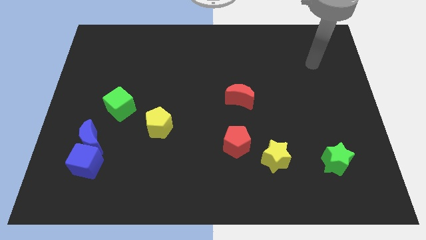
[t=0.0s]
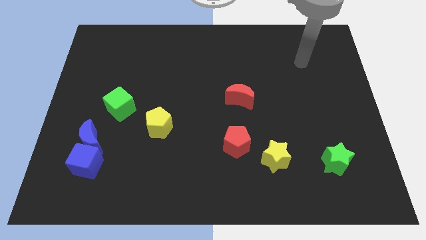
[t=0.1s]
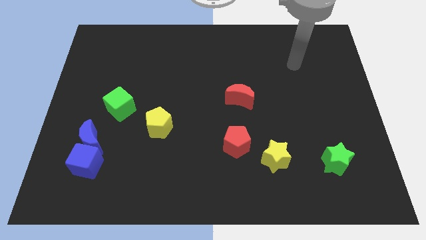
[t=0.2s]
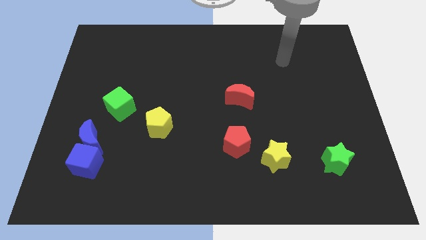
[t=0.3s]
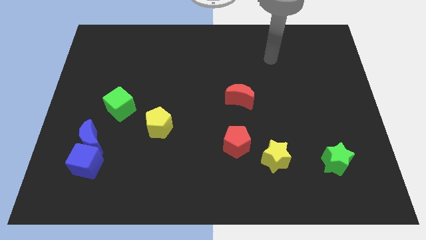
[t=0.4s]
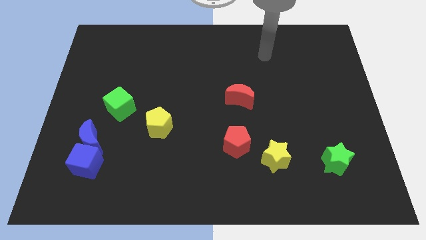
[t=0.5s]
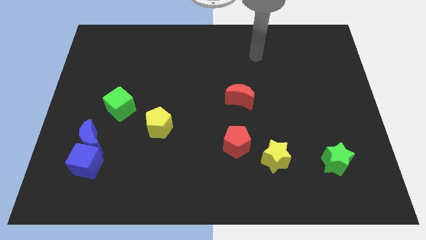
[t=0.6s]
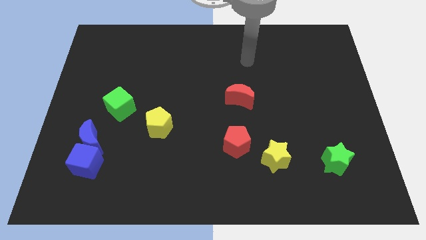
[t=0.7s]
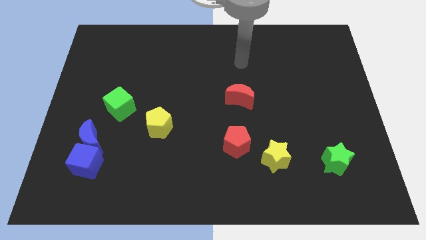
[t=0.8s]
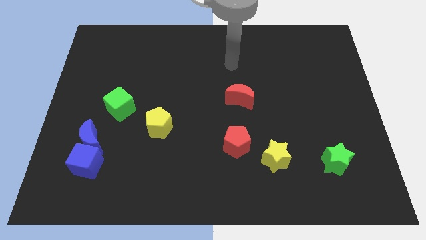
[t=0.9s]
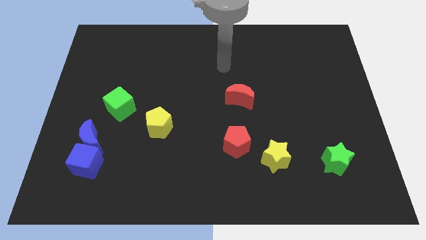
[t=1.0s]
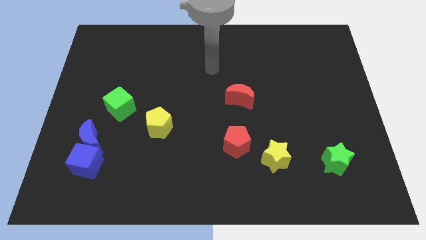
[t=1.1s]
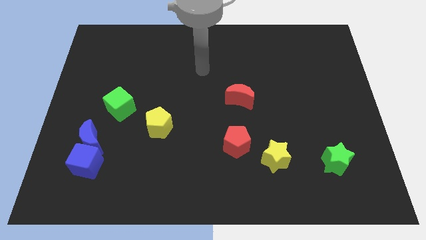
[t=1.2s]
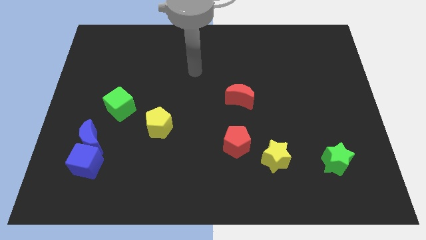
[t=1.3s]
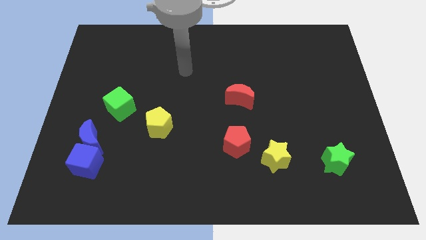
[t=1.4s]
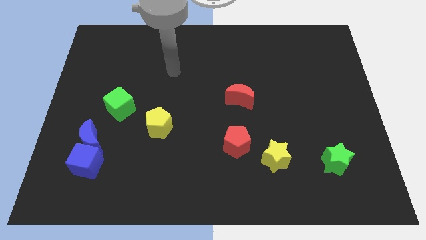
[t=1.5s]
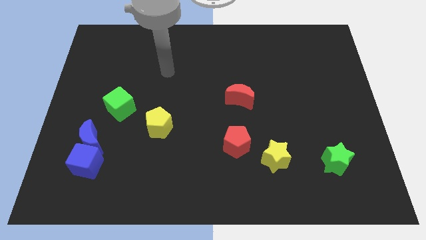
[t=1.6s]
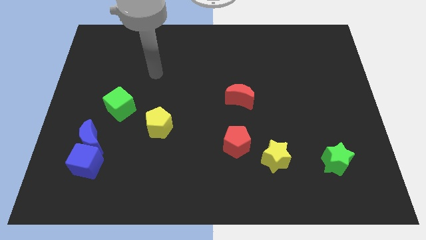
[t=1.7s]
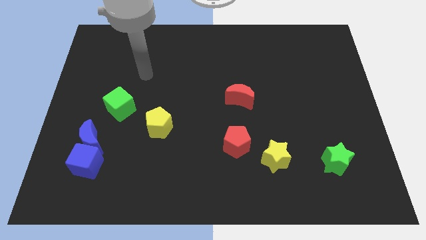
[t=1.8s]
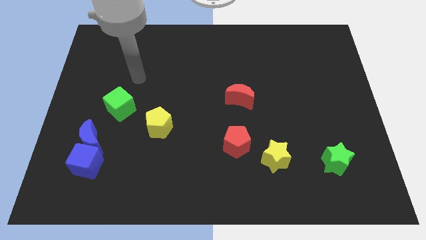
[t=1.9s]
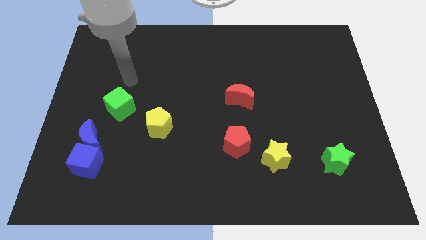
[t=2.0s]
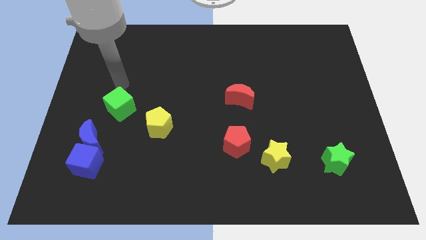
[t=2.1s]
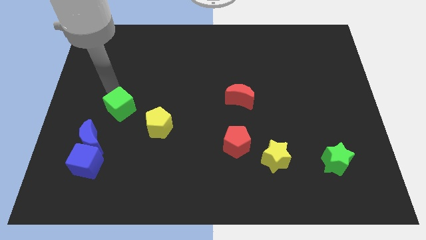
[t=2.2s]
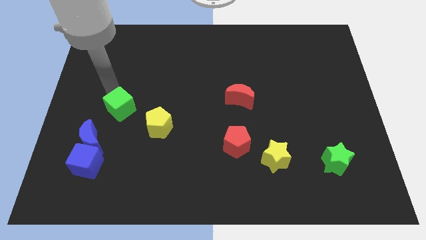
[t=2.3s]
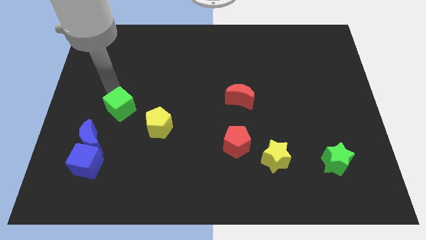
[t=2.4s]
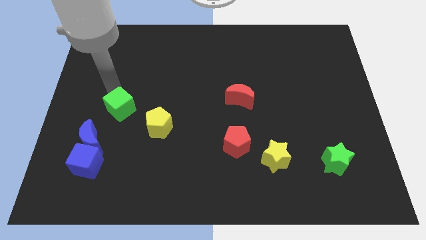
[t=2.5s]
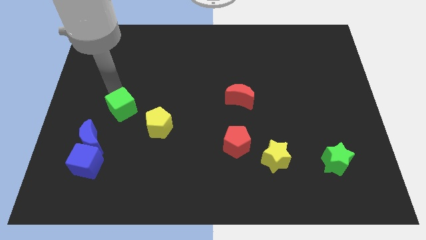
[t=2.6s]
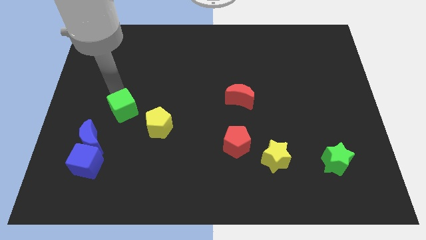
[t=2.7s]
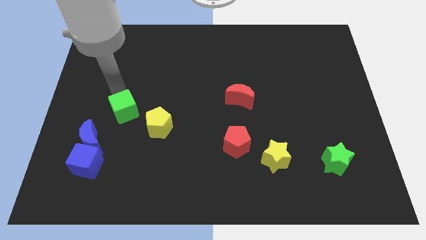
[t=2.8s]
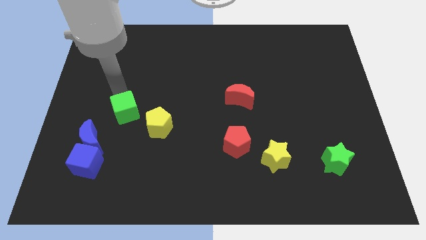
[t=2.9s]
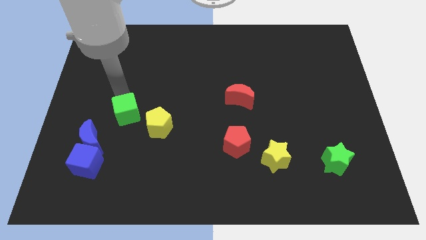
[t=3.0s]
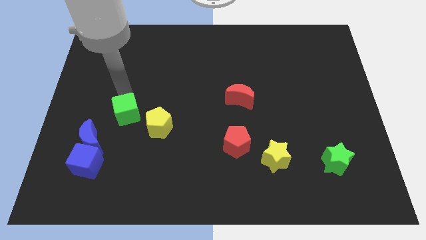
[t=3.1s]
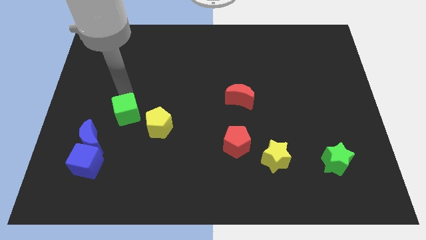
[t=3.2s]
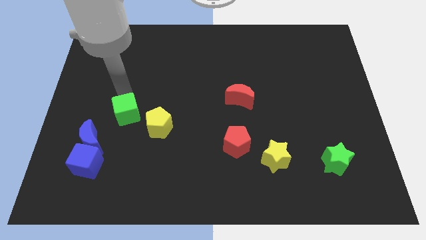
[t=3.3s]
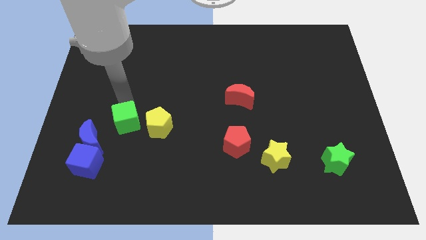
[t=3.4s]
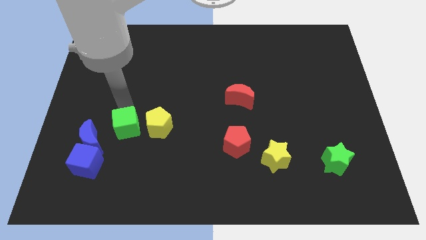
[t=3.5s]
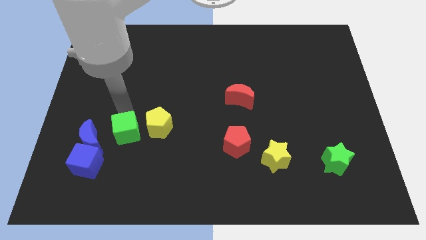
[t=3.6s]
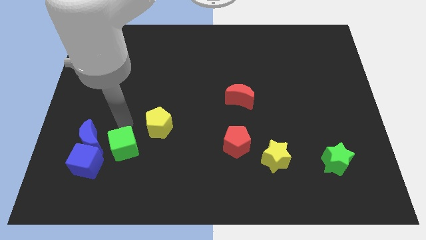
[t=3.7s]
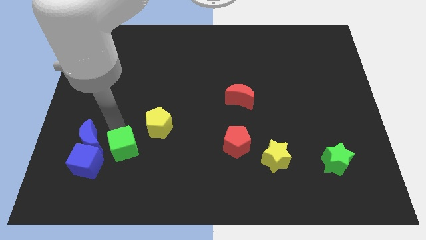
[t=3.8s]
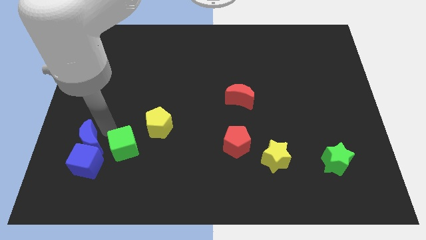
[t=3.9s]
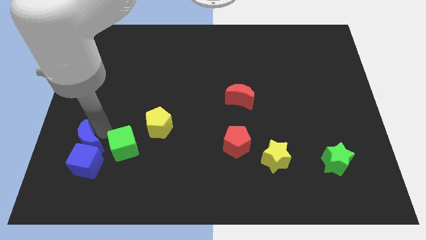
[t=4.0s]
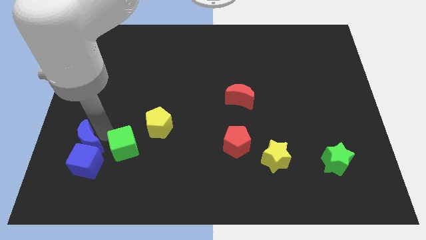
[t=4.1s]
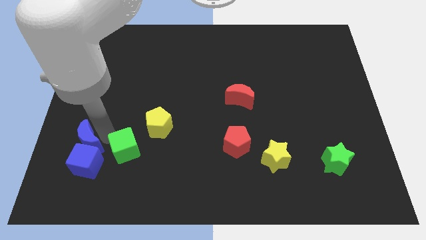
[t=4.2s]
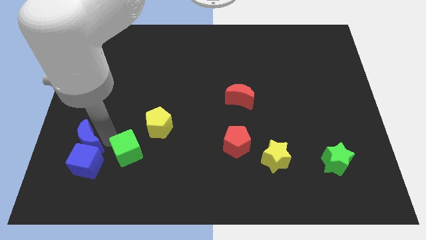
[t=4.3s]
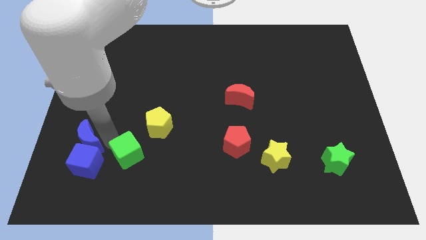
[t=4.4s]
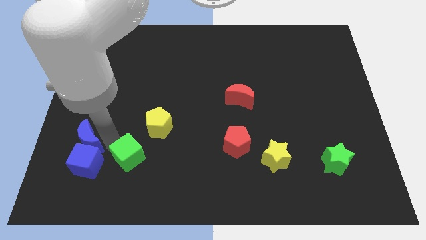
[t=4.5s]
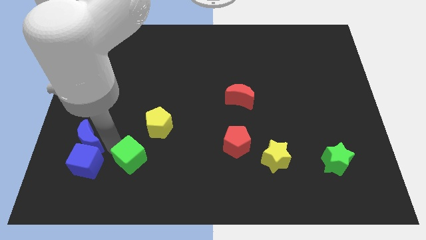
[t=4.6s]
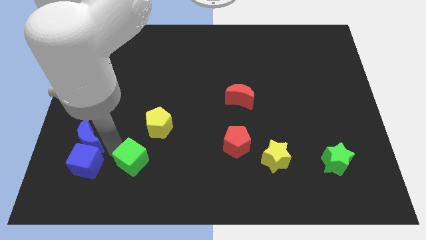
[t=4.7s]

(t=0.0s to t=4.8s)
push the green cube below the yellow pentagon

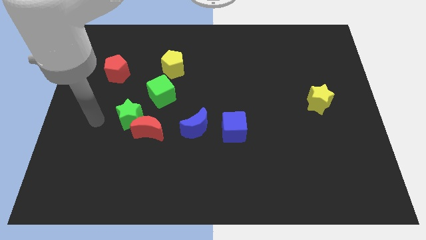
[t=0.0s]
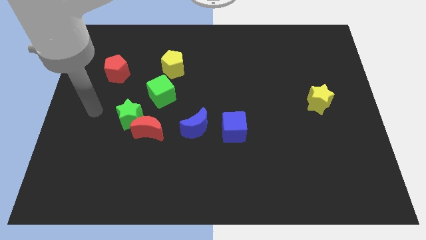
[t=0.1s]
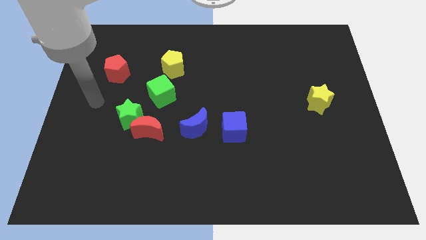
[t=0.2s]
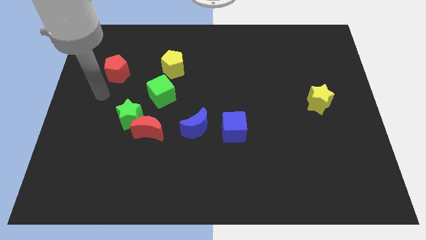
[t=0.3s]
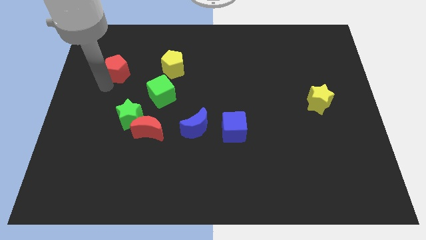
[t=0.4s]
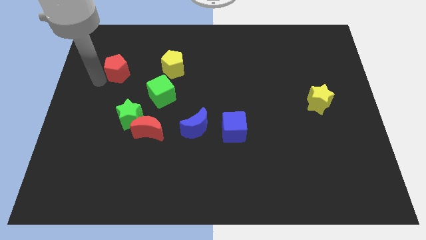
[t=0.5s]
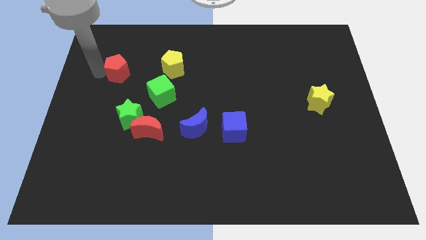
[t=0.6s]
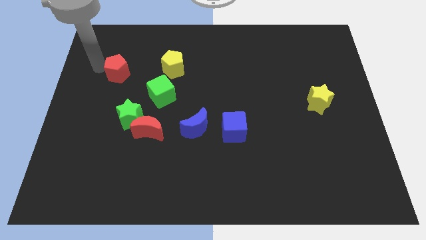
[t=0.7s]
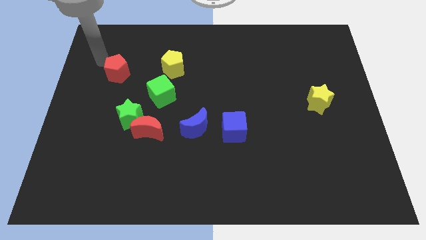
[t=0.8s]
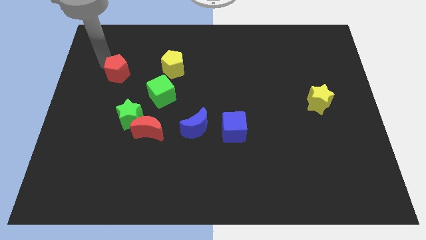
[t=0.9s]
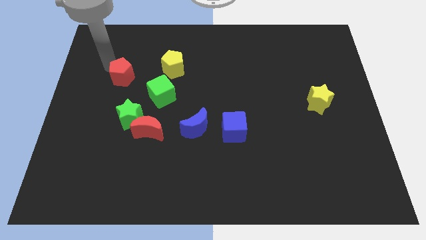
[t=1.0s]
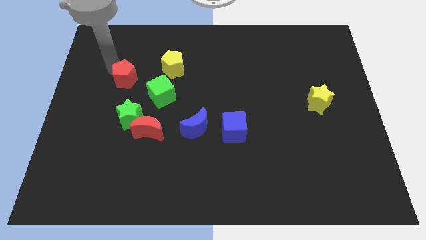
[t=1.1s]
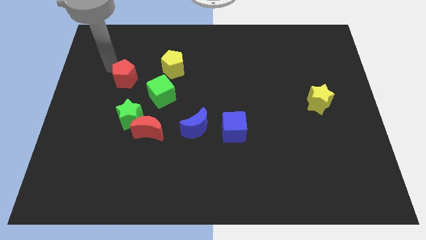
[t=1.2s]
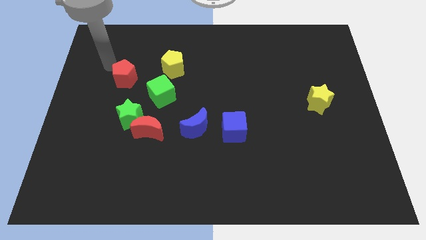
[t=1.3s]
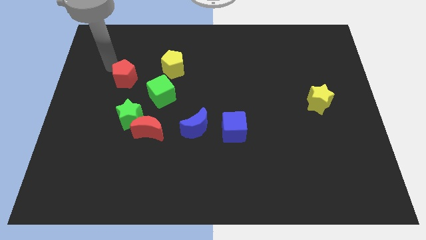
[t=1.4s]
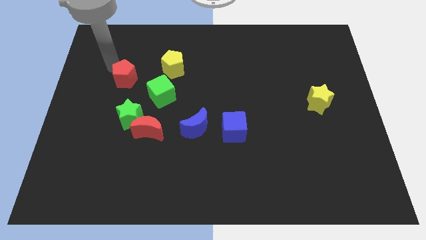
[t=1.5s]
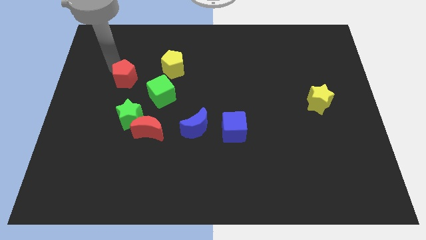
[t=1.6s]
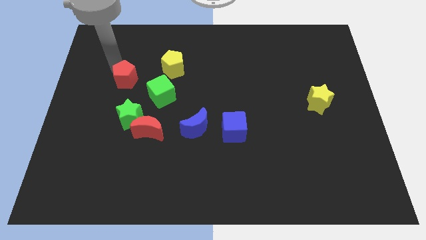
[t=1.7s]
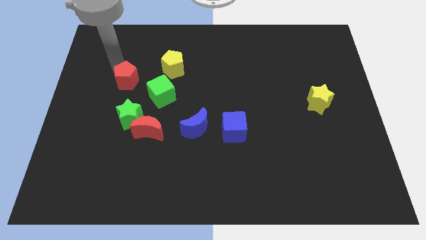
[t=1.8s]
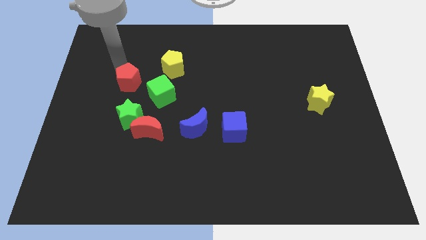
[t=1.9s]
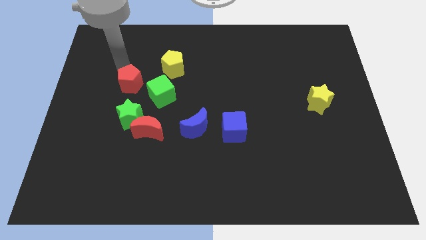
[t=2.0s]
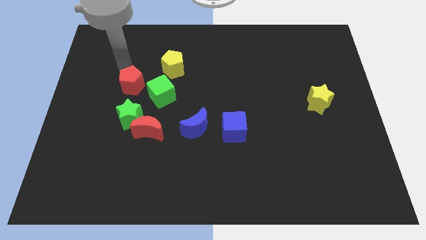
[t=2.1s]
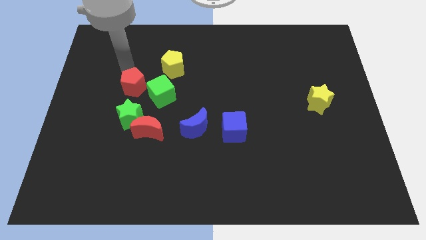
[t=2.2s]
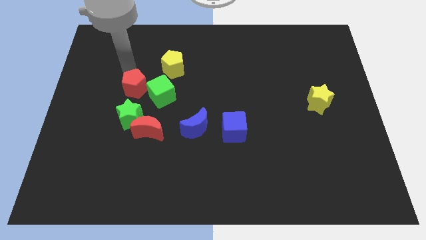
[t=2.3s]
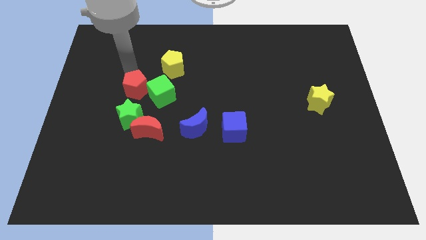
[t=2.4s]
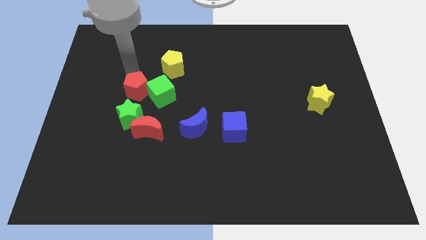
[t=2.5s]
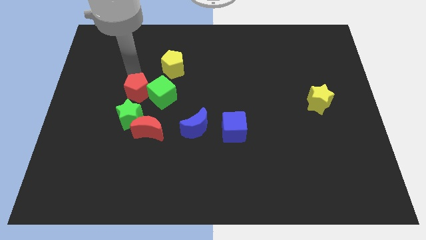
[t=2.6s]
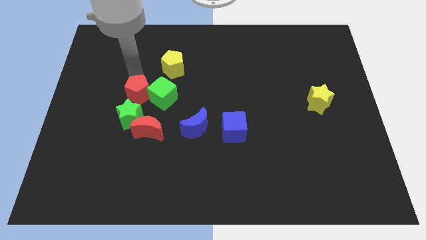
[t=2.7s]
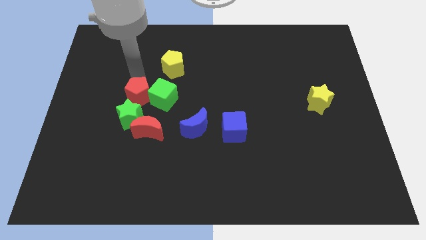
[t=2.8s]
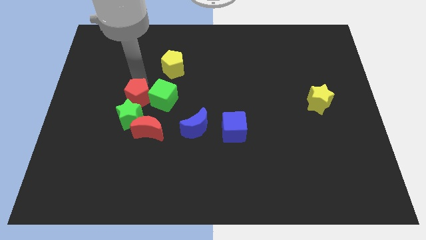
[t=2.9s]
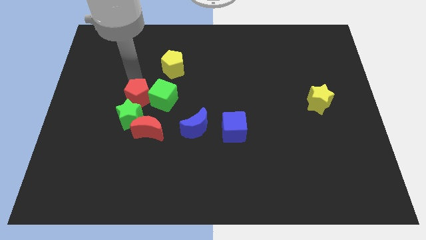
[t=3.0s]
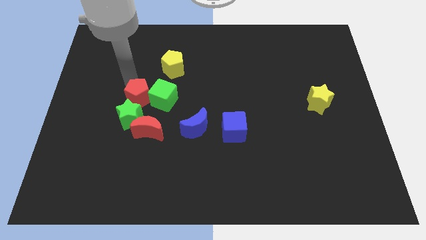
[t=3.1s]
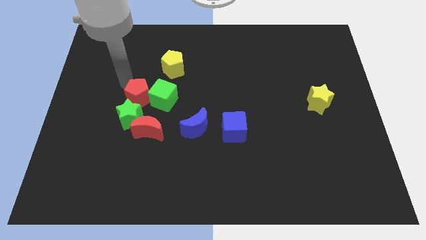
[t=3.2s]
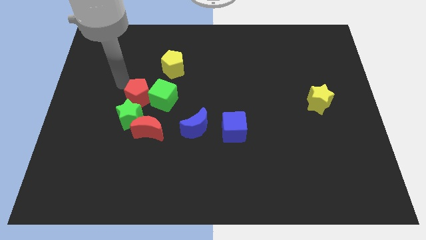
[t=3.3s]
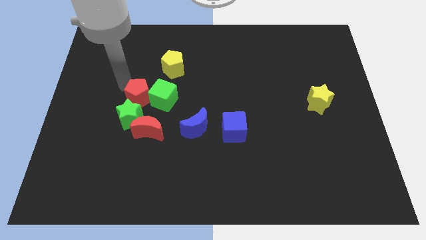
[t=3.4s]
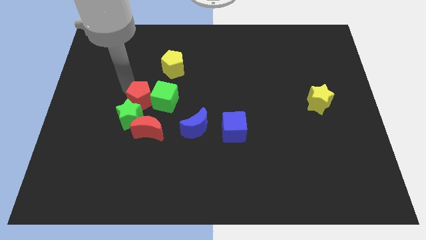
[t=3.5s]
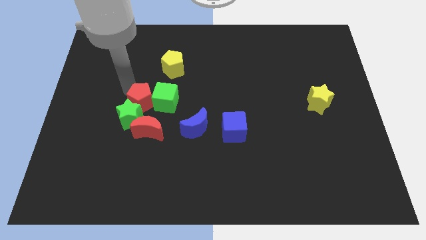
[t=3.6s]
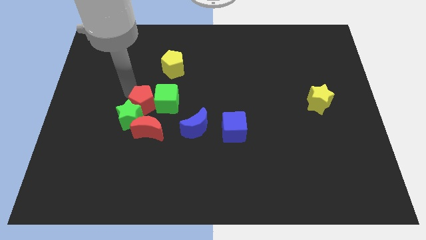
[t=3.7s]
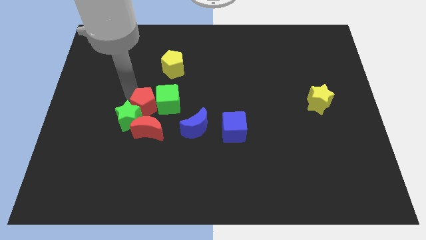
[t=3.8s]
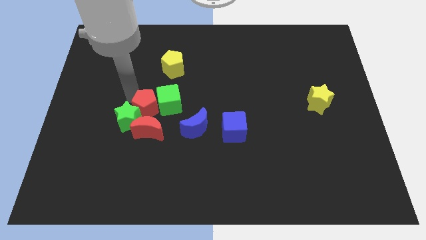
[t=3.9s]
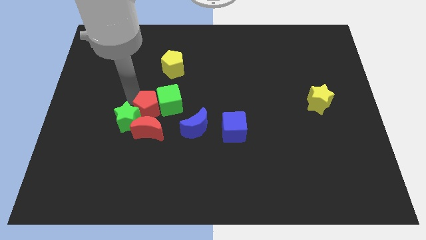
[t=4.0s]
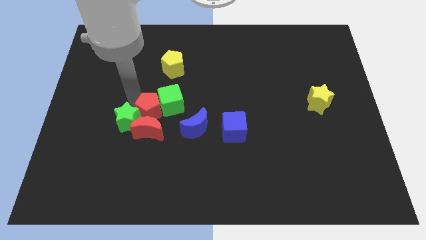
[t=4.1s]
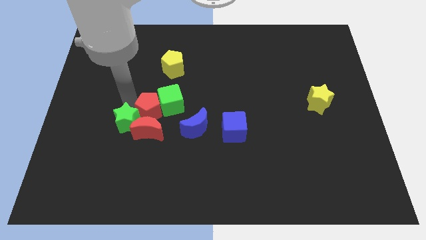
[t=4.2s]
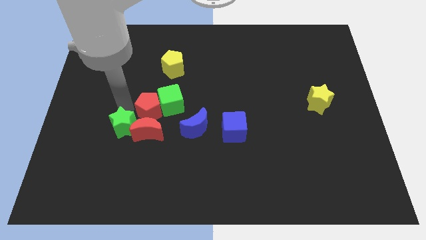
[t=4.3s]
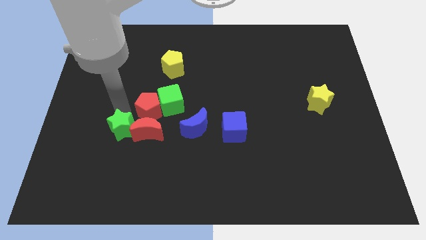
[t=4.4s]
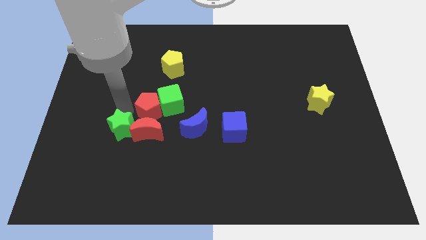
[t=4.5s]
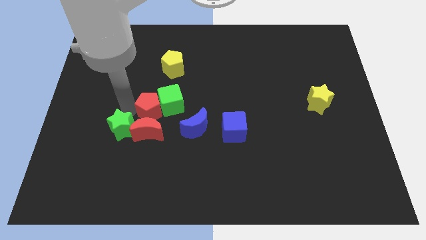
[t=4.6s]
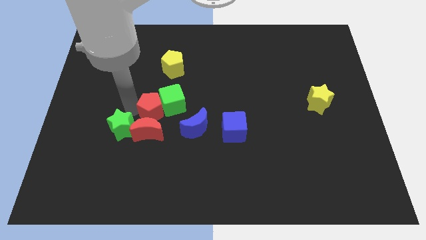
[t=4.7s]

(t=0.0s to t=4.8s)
push the red pentagon to the top left of the blue moon
